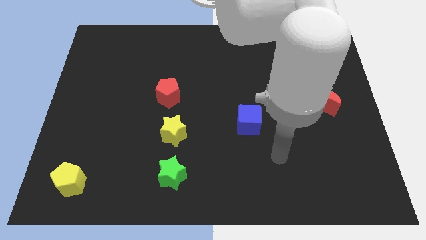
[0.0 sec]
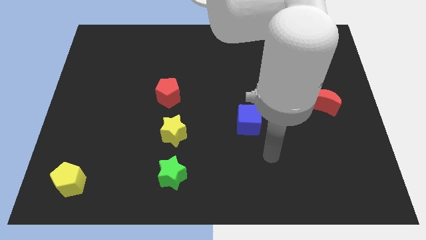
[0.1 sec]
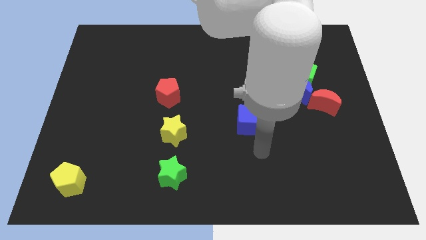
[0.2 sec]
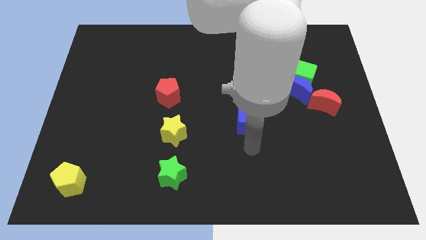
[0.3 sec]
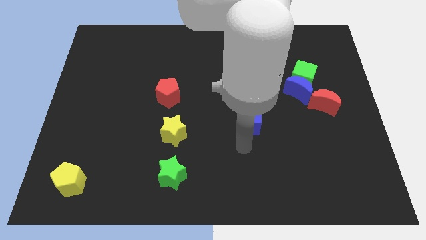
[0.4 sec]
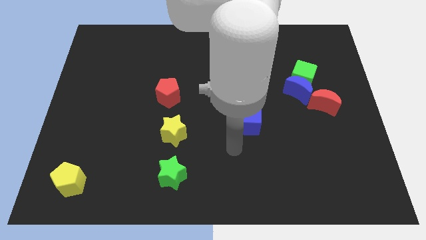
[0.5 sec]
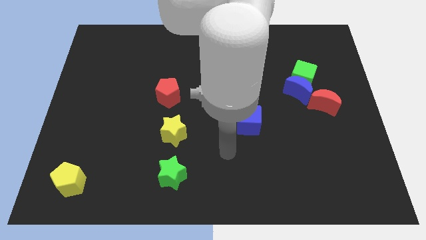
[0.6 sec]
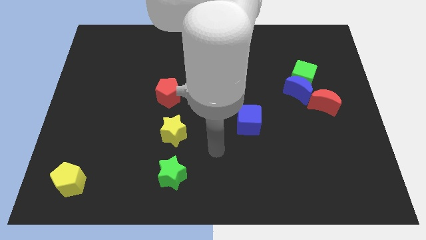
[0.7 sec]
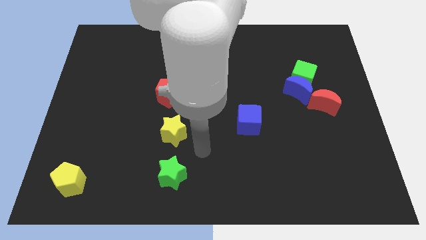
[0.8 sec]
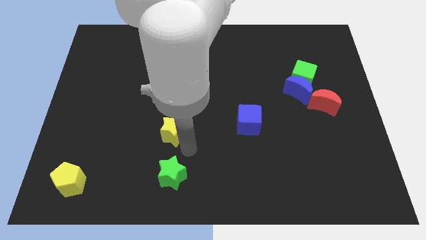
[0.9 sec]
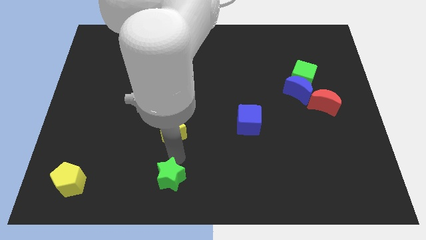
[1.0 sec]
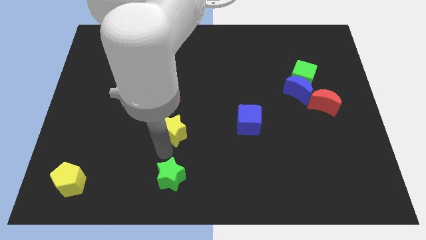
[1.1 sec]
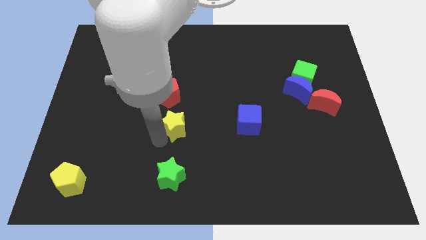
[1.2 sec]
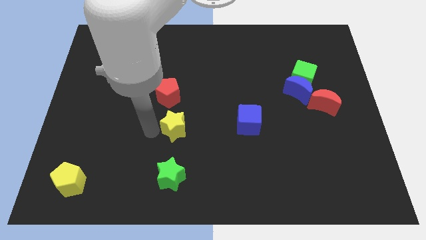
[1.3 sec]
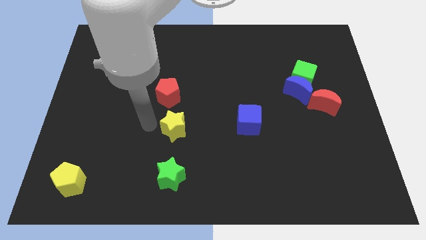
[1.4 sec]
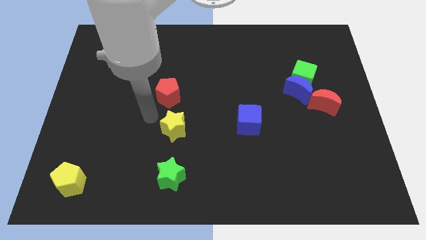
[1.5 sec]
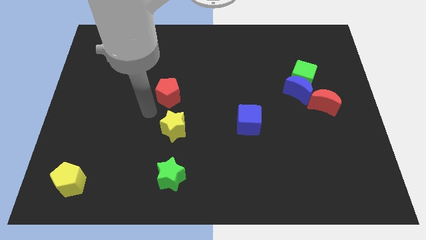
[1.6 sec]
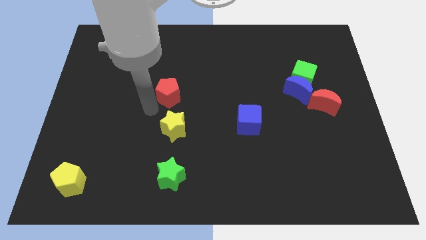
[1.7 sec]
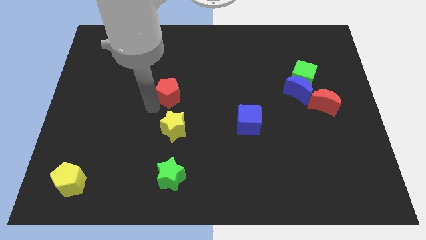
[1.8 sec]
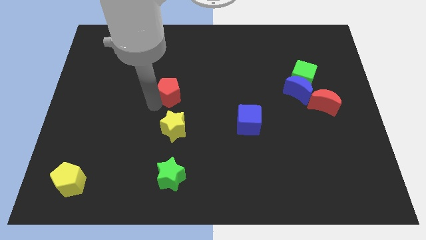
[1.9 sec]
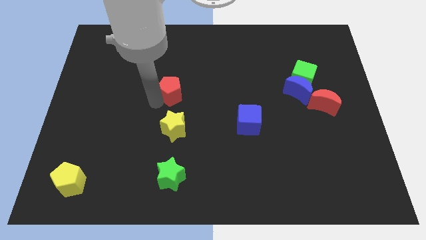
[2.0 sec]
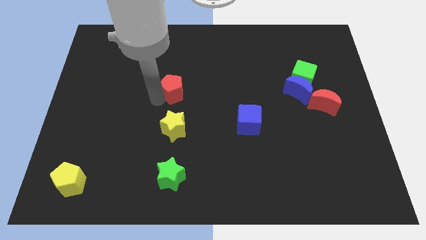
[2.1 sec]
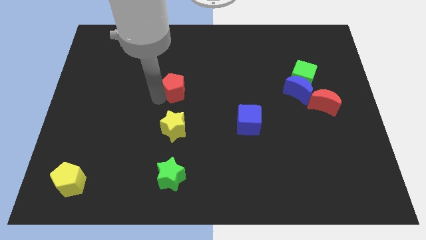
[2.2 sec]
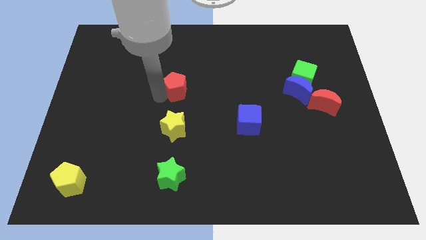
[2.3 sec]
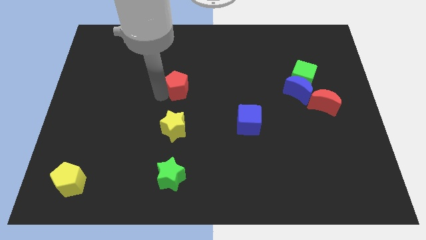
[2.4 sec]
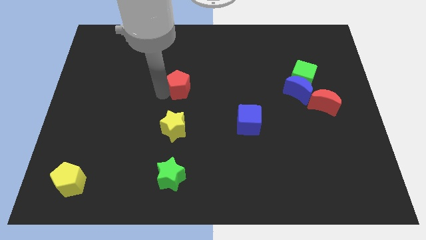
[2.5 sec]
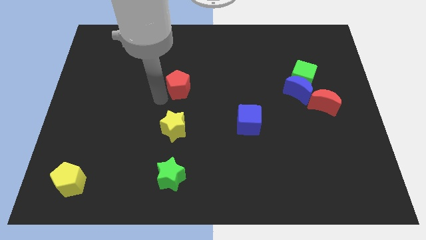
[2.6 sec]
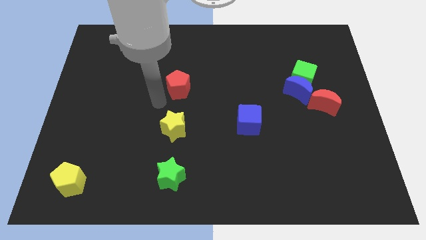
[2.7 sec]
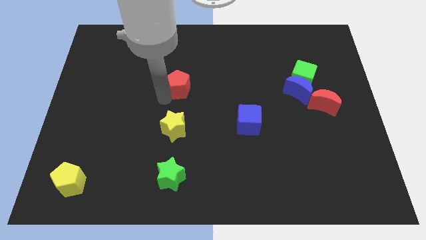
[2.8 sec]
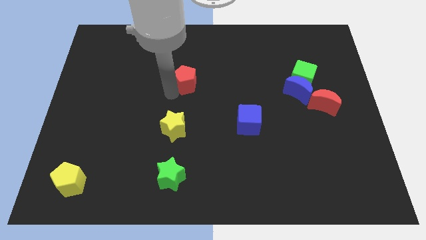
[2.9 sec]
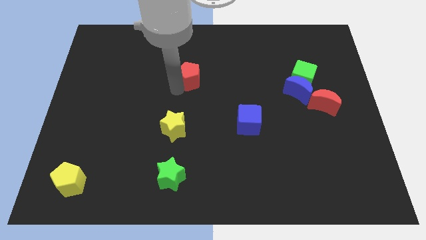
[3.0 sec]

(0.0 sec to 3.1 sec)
move the red pentagon a bit upwards and right diagonally

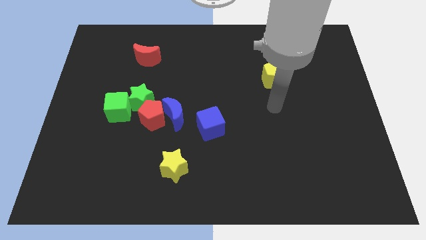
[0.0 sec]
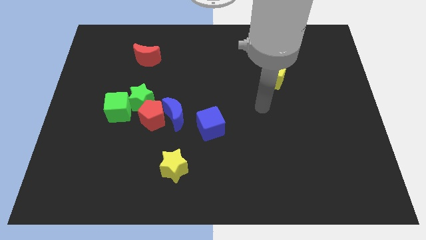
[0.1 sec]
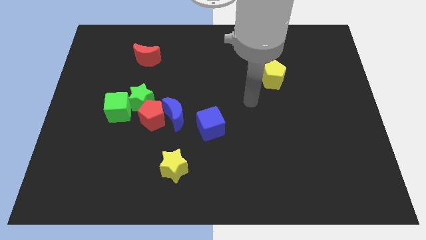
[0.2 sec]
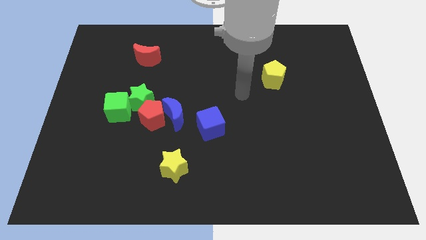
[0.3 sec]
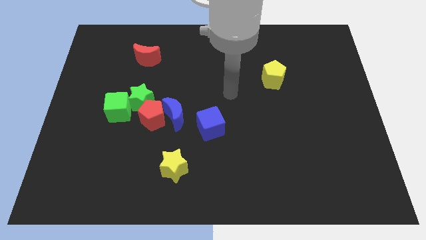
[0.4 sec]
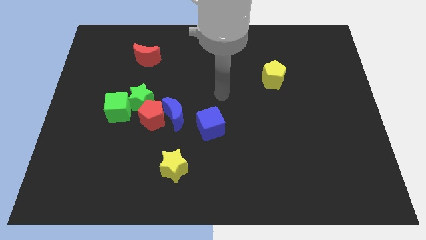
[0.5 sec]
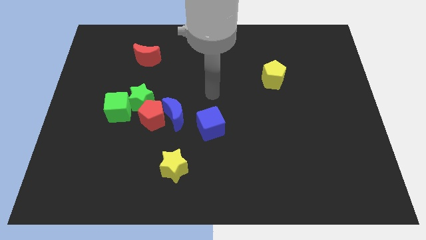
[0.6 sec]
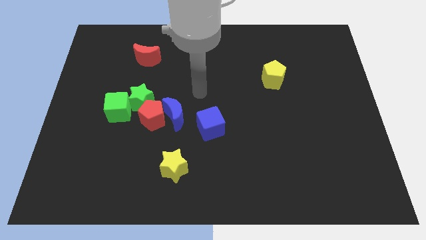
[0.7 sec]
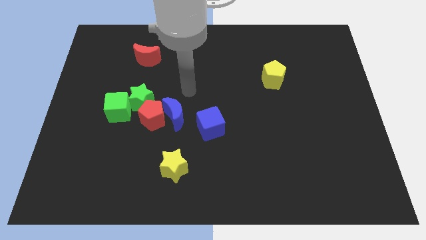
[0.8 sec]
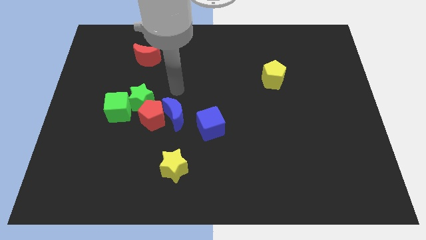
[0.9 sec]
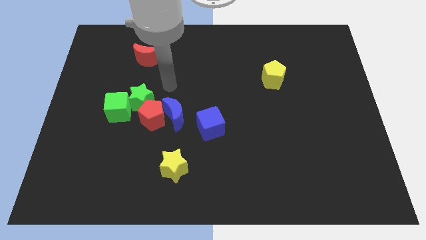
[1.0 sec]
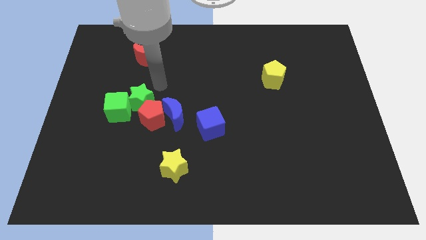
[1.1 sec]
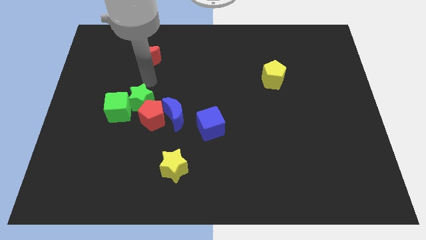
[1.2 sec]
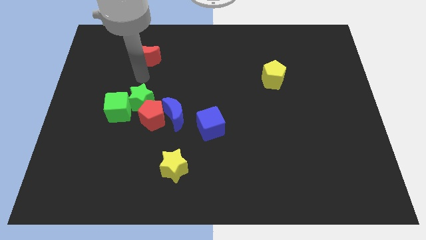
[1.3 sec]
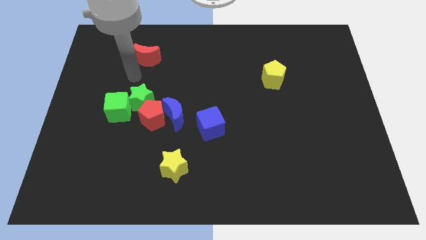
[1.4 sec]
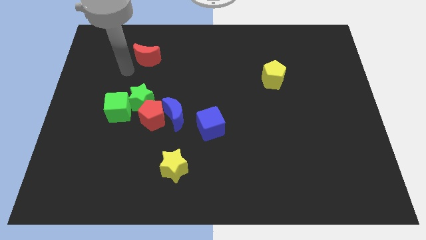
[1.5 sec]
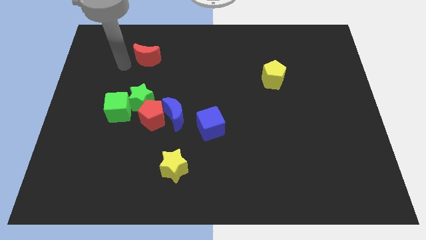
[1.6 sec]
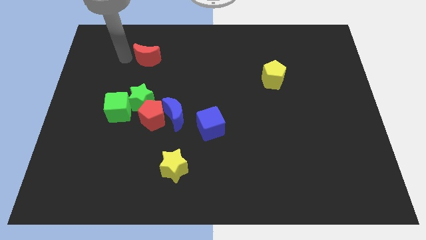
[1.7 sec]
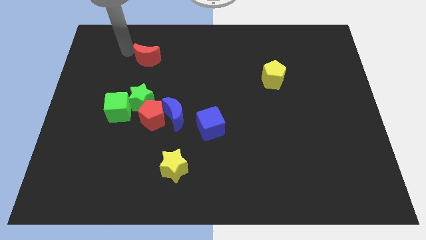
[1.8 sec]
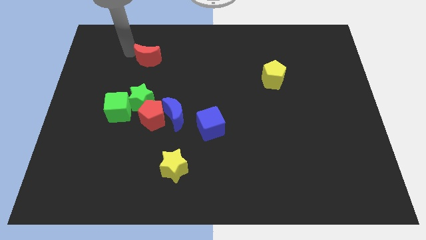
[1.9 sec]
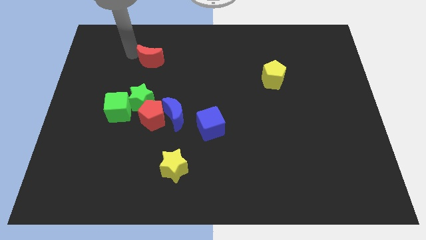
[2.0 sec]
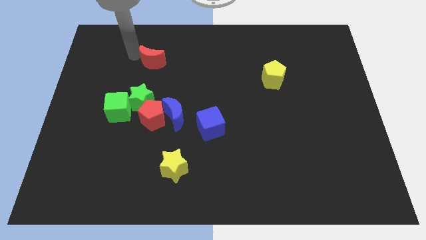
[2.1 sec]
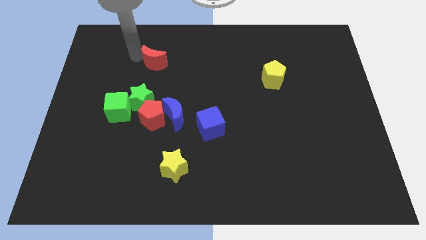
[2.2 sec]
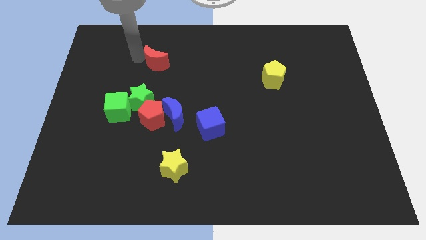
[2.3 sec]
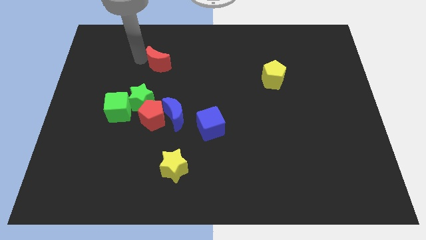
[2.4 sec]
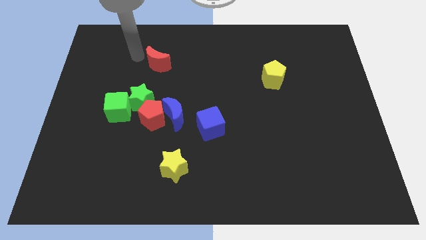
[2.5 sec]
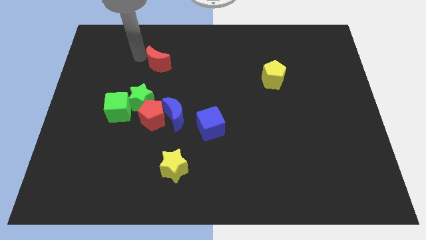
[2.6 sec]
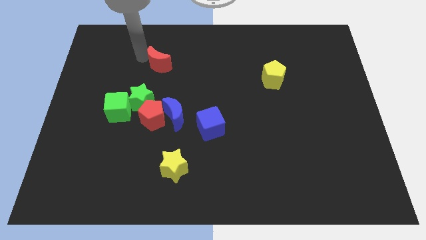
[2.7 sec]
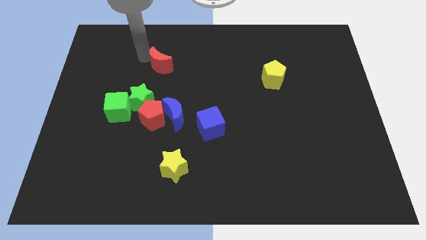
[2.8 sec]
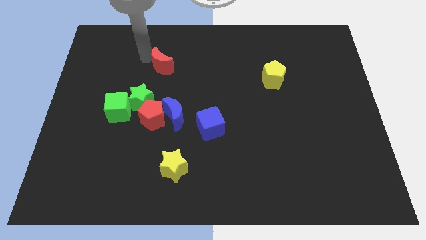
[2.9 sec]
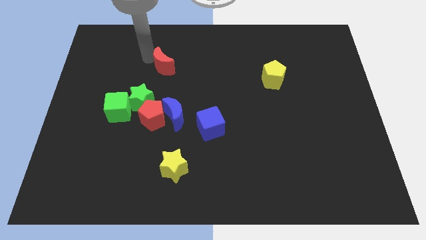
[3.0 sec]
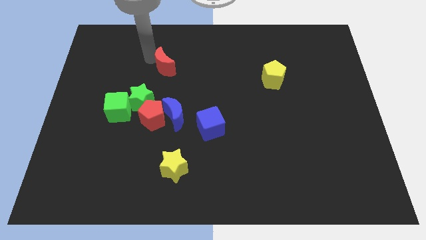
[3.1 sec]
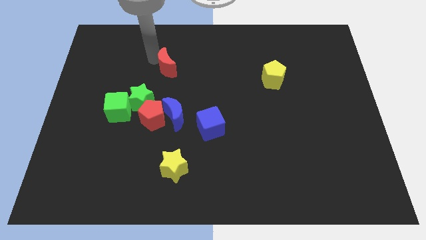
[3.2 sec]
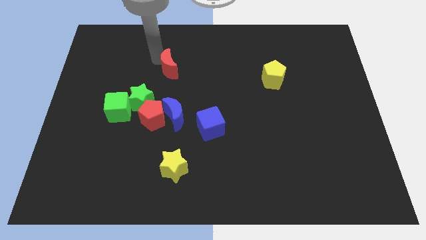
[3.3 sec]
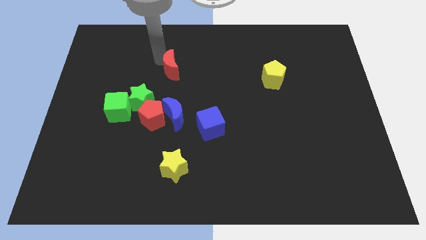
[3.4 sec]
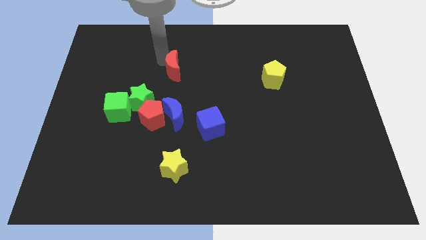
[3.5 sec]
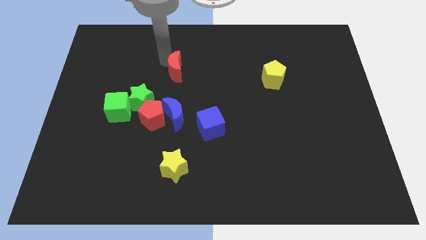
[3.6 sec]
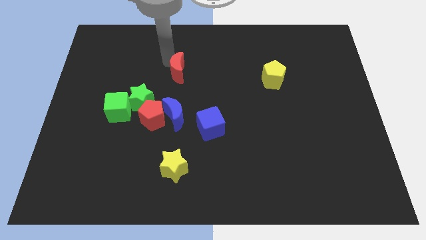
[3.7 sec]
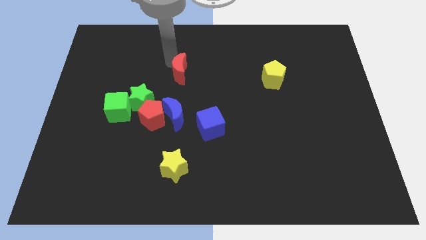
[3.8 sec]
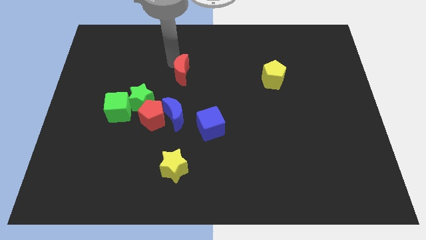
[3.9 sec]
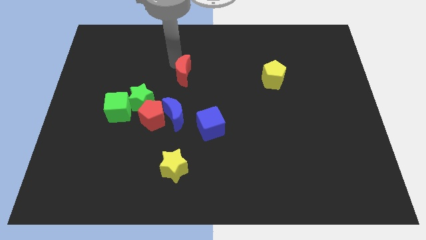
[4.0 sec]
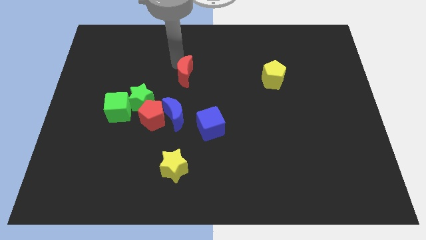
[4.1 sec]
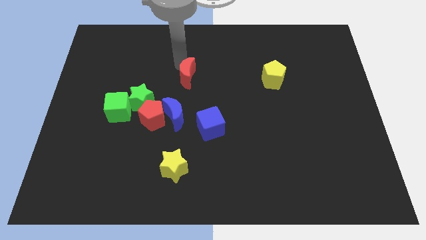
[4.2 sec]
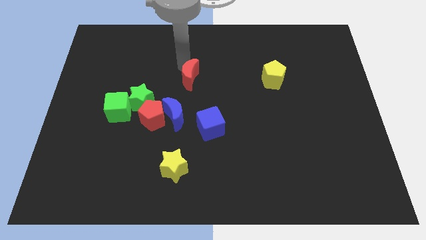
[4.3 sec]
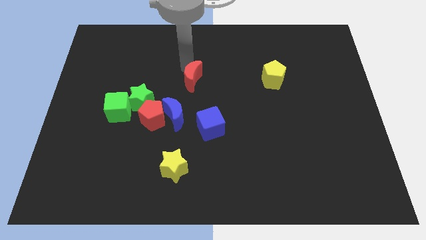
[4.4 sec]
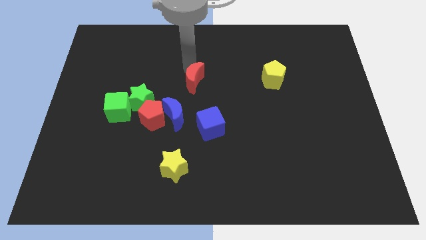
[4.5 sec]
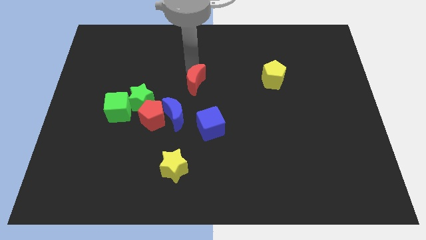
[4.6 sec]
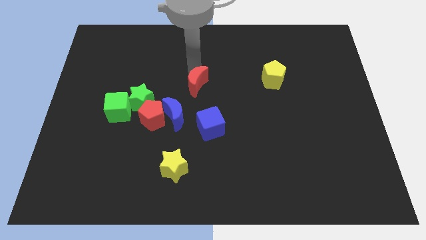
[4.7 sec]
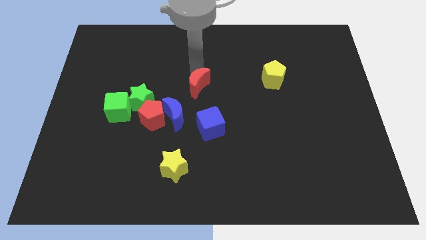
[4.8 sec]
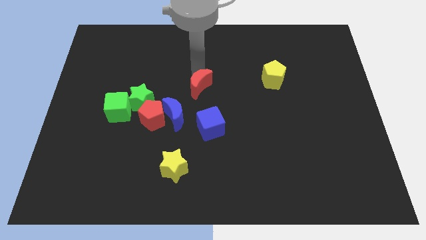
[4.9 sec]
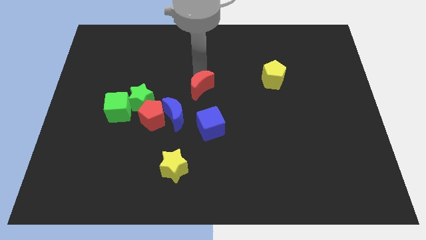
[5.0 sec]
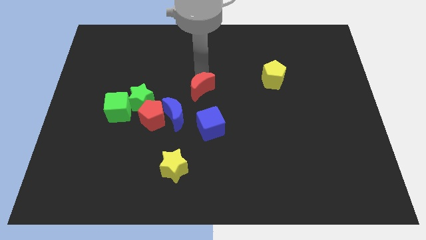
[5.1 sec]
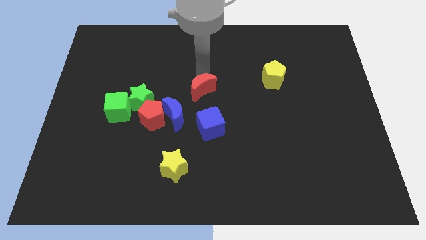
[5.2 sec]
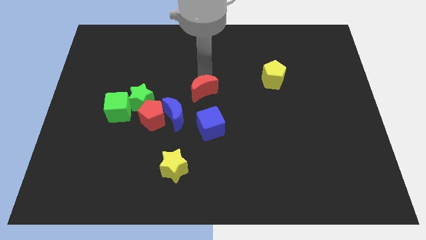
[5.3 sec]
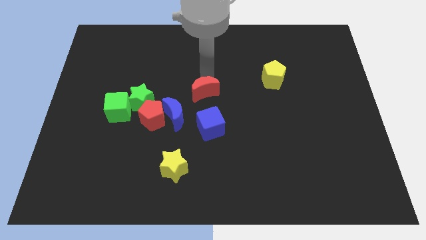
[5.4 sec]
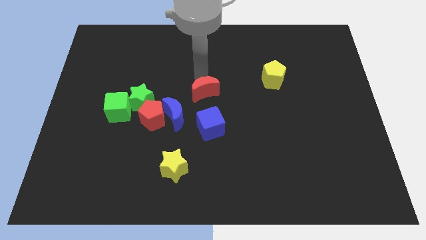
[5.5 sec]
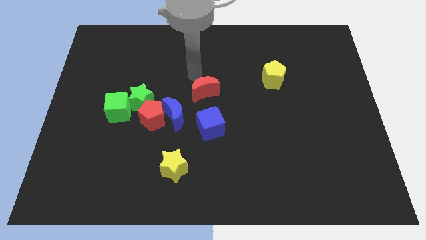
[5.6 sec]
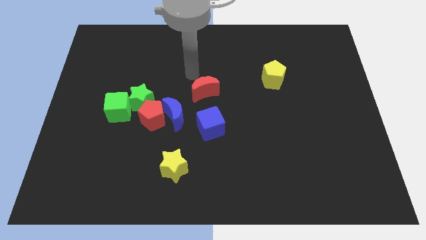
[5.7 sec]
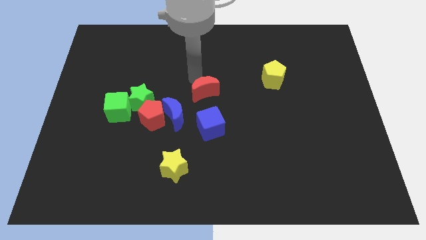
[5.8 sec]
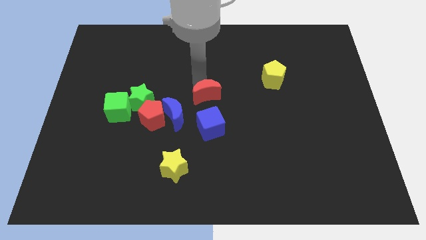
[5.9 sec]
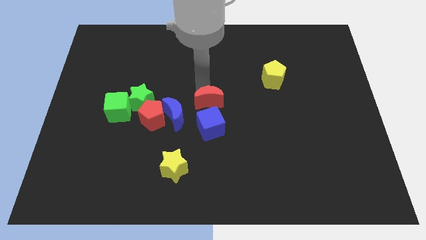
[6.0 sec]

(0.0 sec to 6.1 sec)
move the red moon downwards and then to the right
